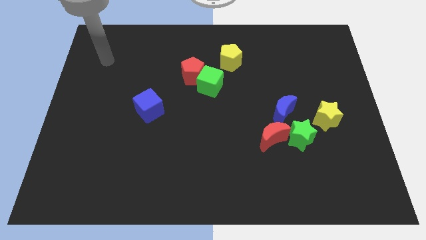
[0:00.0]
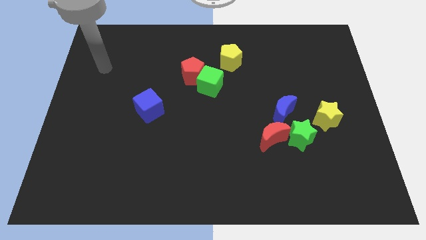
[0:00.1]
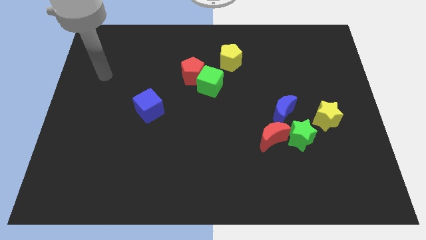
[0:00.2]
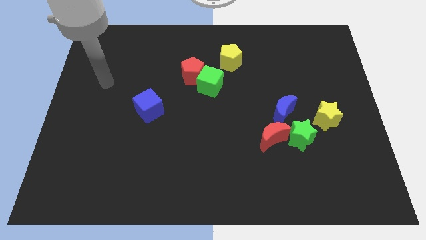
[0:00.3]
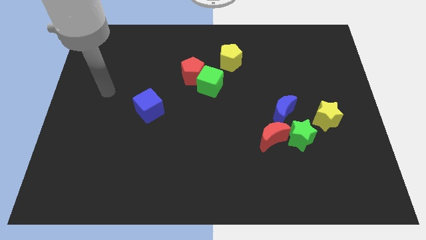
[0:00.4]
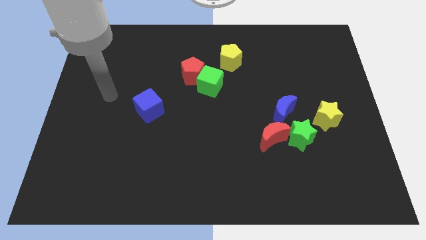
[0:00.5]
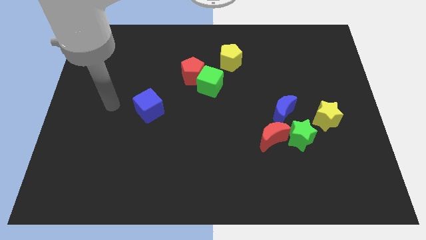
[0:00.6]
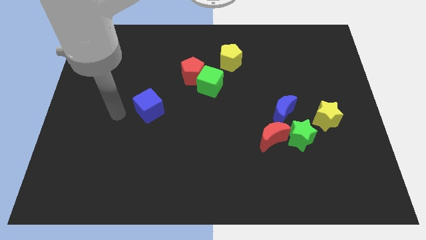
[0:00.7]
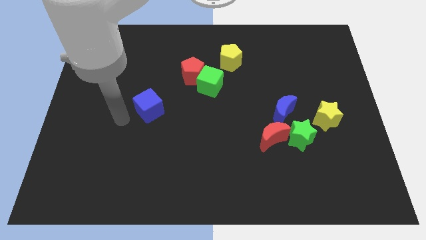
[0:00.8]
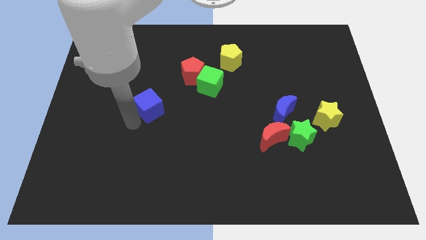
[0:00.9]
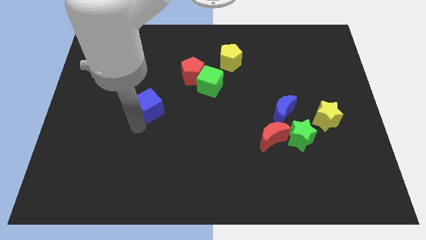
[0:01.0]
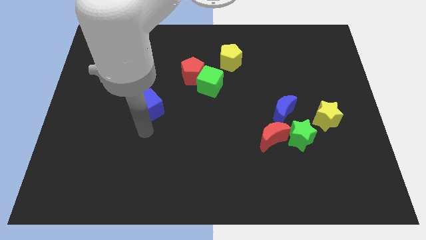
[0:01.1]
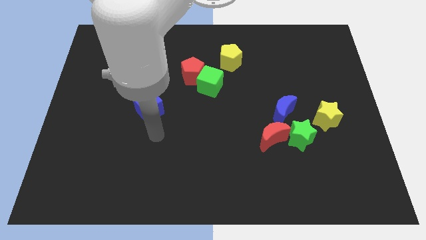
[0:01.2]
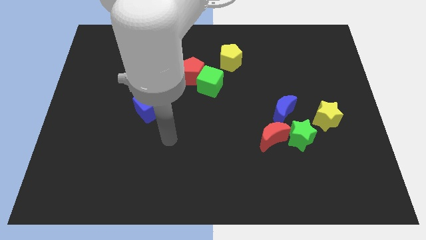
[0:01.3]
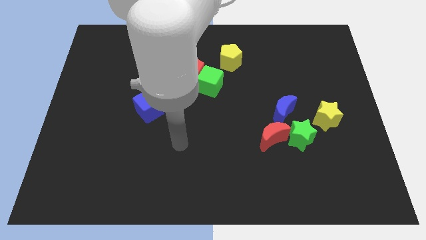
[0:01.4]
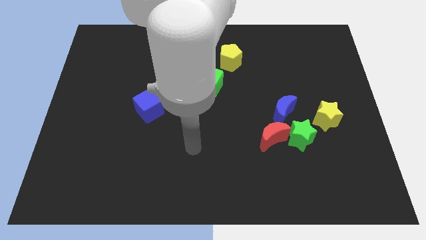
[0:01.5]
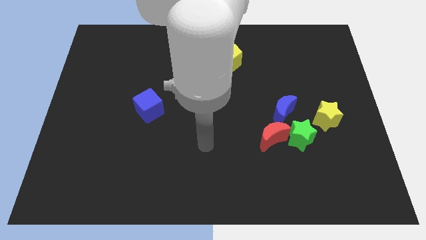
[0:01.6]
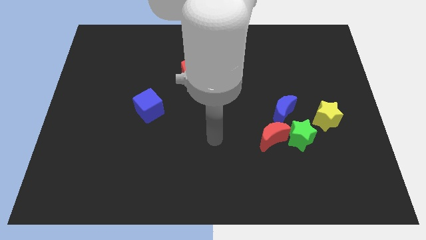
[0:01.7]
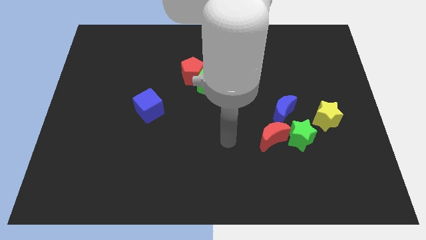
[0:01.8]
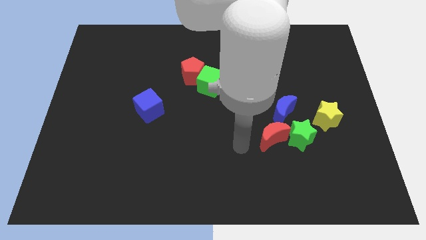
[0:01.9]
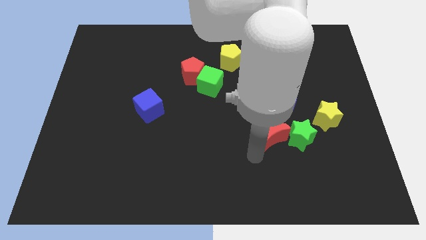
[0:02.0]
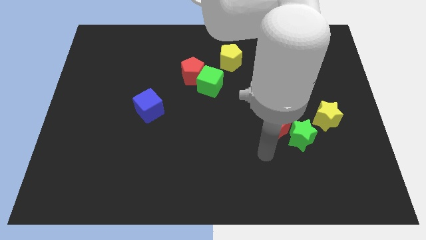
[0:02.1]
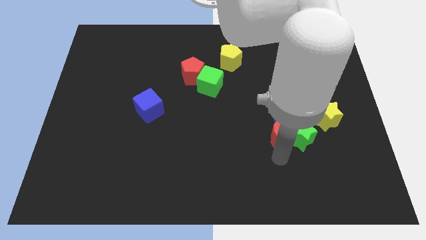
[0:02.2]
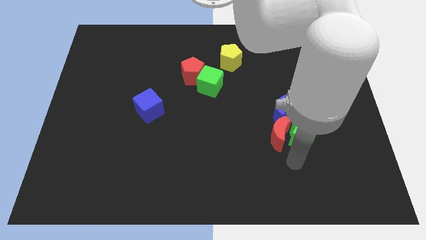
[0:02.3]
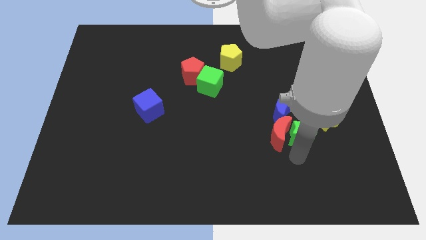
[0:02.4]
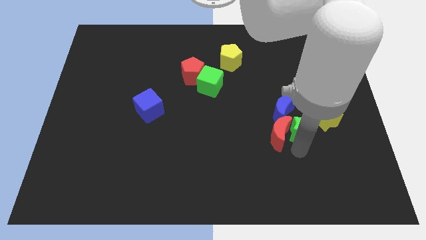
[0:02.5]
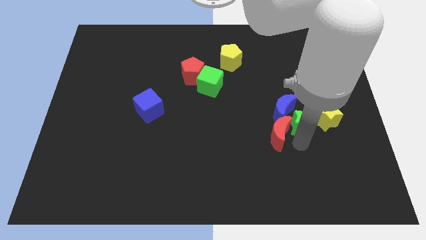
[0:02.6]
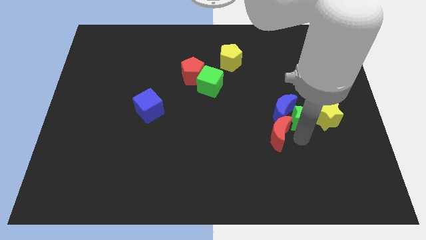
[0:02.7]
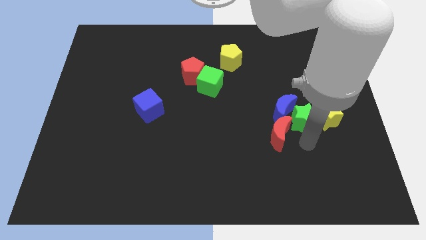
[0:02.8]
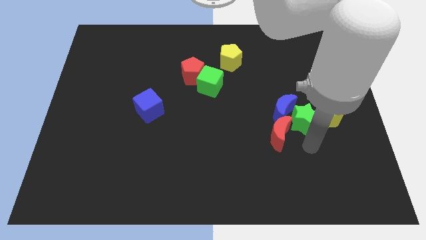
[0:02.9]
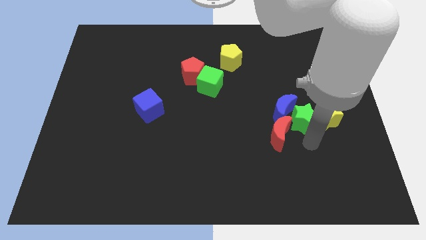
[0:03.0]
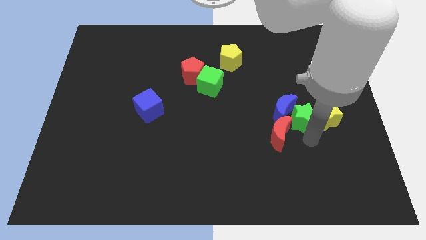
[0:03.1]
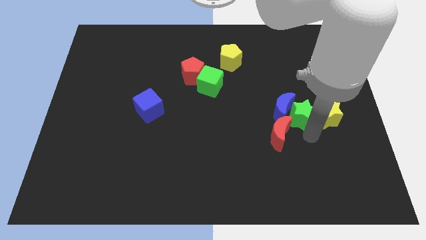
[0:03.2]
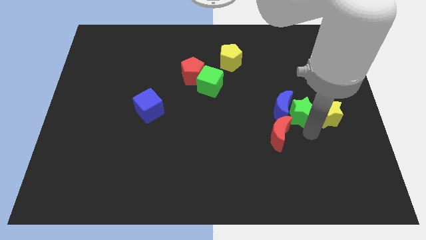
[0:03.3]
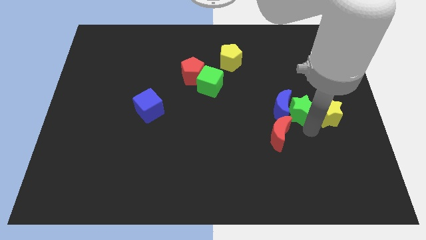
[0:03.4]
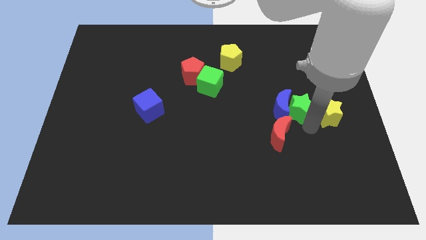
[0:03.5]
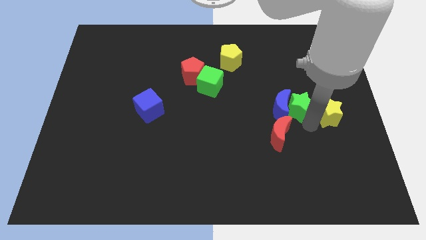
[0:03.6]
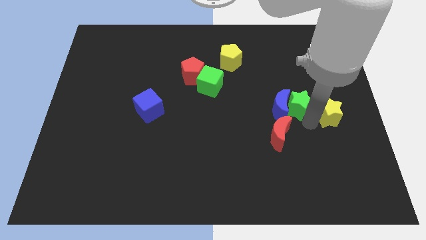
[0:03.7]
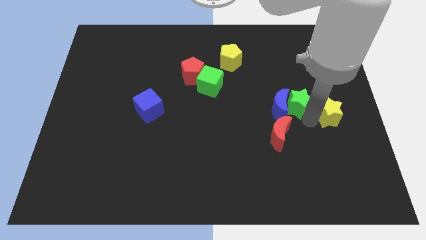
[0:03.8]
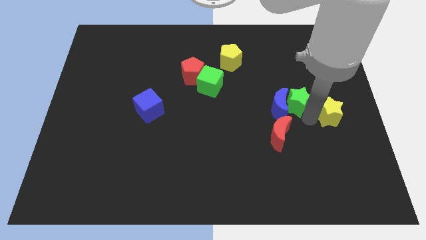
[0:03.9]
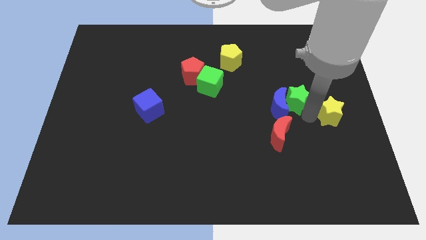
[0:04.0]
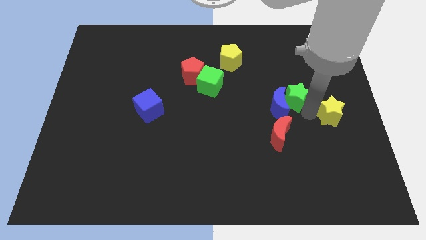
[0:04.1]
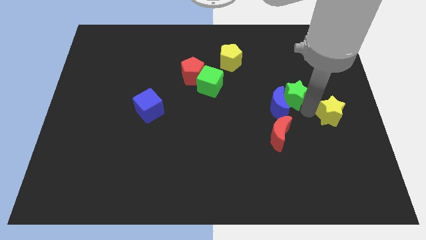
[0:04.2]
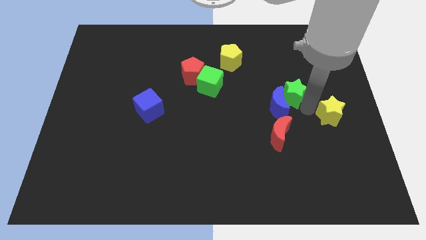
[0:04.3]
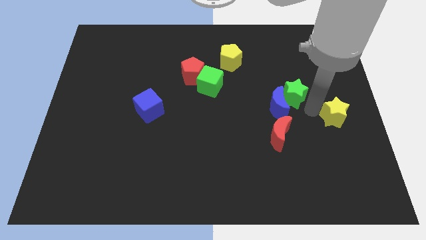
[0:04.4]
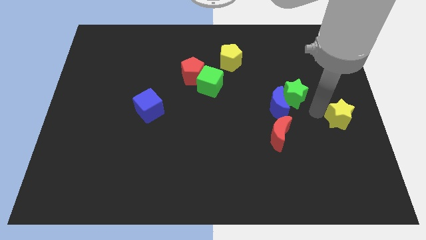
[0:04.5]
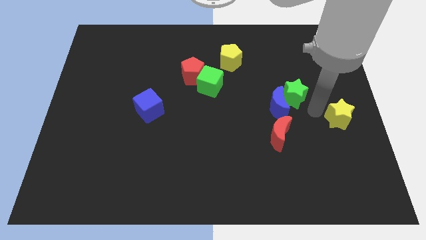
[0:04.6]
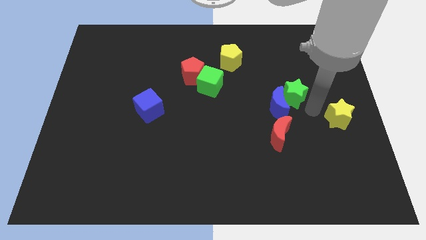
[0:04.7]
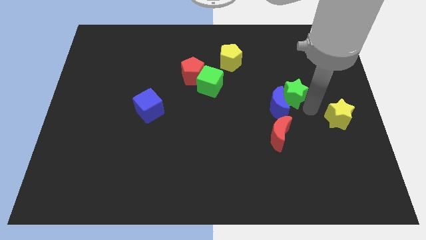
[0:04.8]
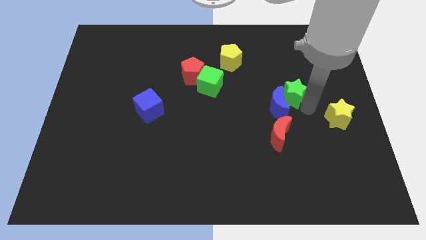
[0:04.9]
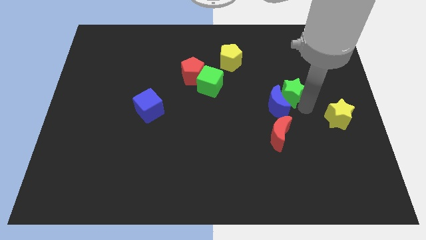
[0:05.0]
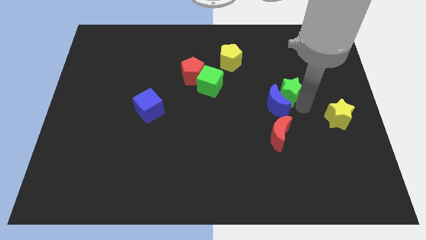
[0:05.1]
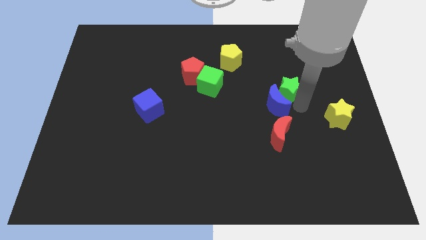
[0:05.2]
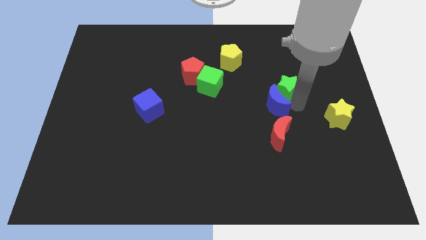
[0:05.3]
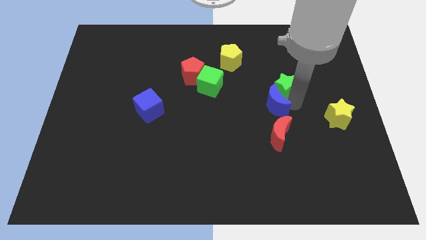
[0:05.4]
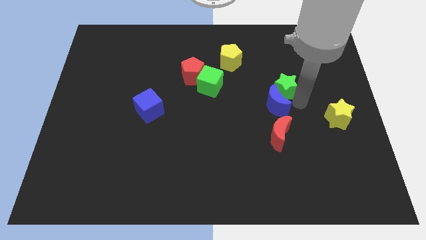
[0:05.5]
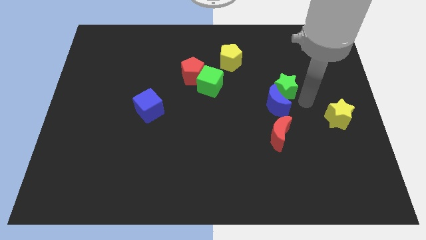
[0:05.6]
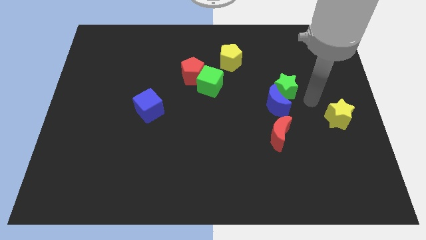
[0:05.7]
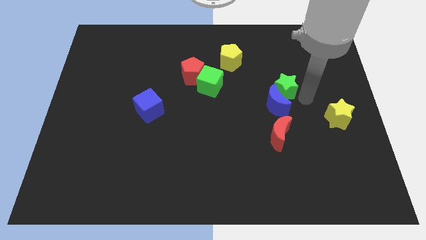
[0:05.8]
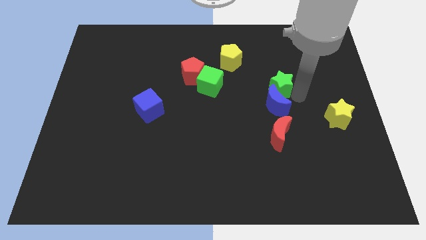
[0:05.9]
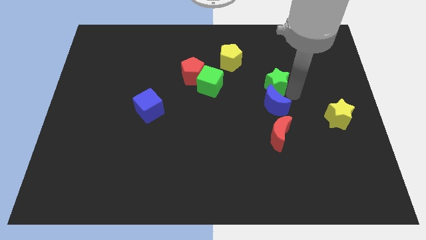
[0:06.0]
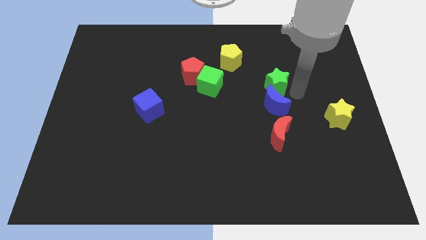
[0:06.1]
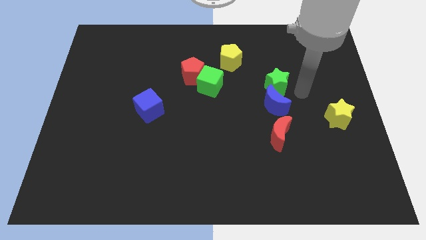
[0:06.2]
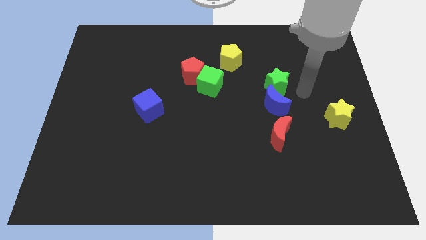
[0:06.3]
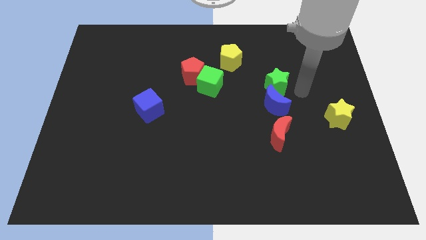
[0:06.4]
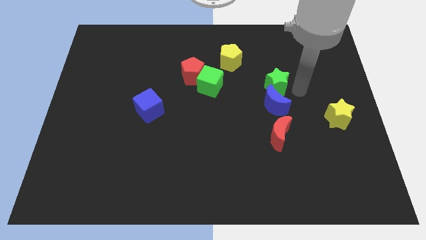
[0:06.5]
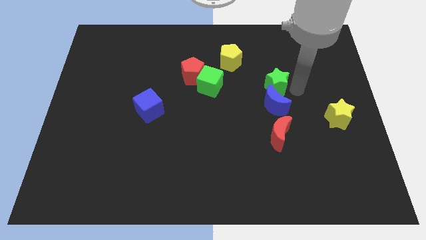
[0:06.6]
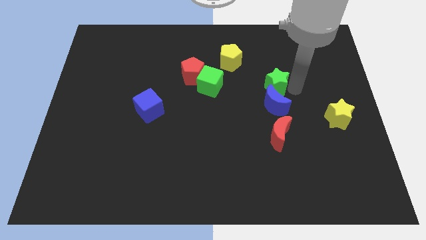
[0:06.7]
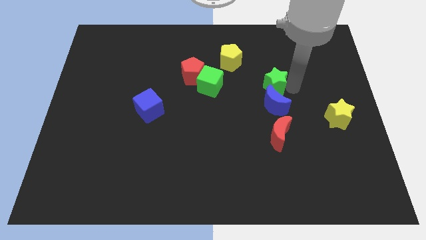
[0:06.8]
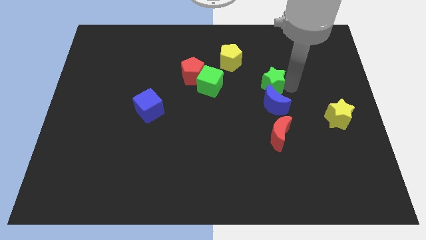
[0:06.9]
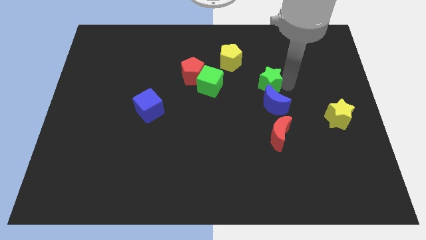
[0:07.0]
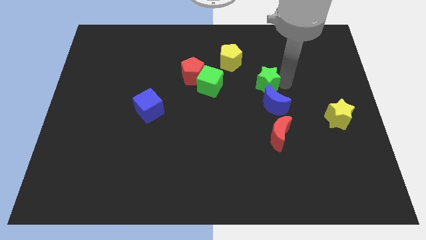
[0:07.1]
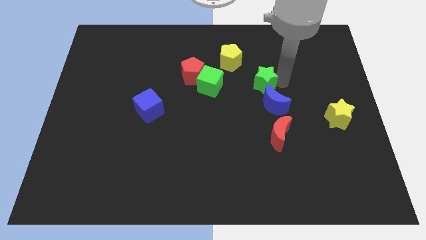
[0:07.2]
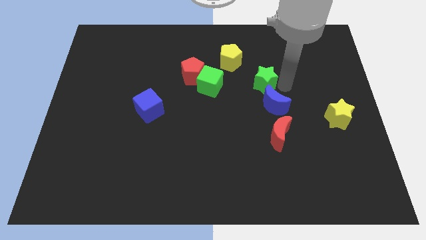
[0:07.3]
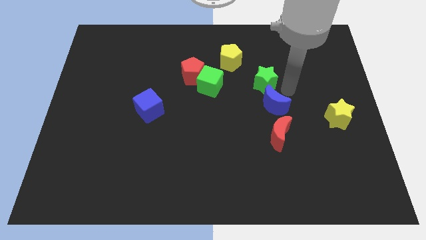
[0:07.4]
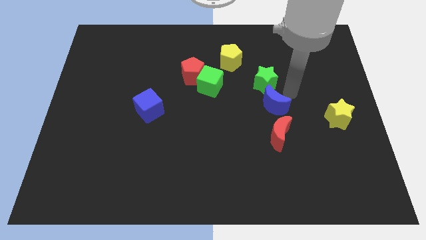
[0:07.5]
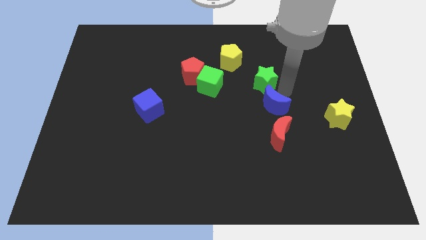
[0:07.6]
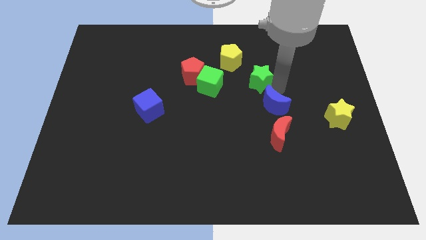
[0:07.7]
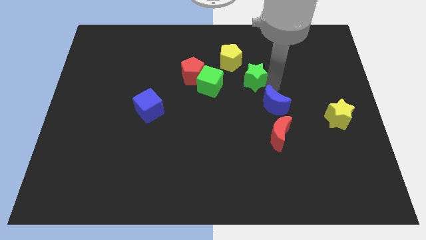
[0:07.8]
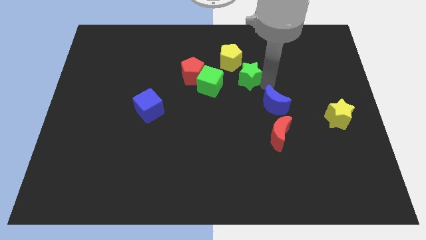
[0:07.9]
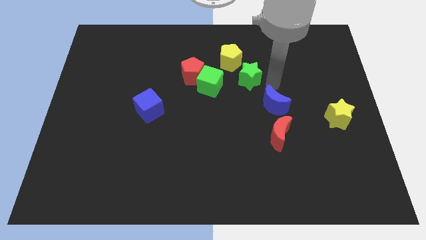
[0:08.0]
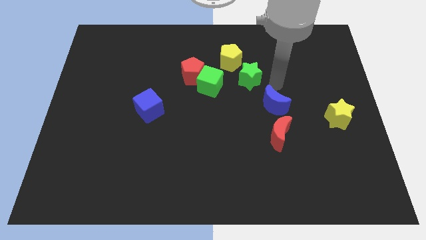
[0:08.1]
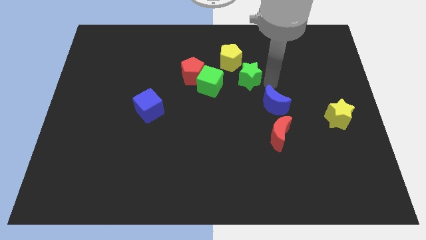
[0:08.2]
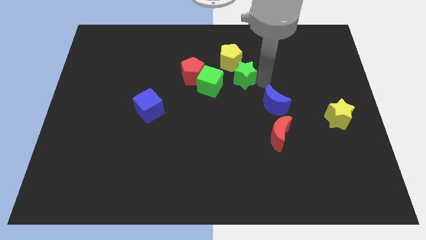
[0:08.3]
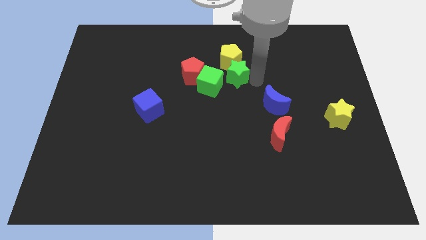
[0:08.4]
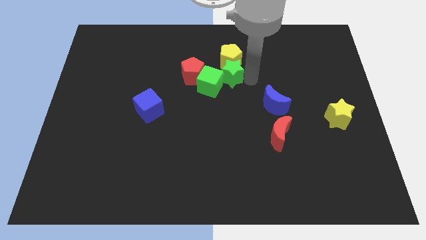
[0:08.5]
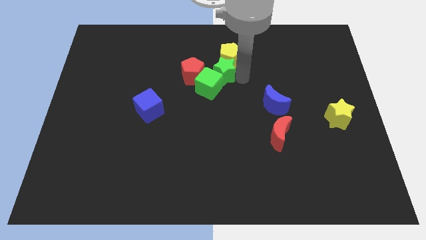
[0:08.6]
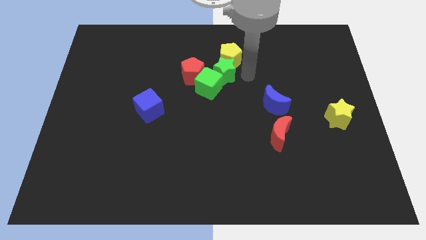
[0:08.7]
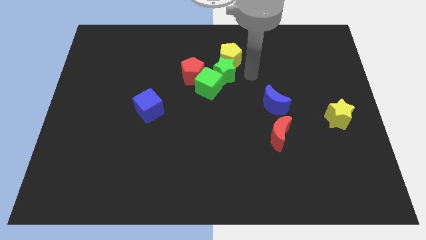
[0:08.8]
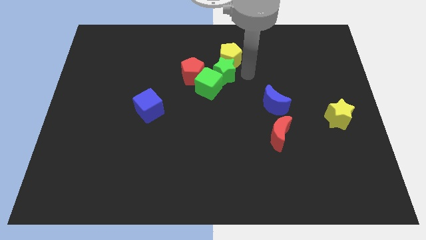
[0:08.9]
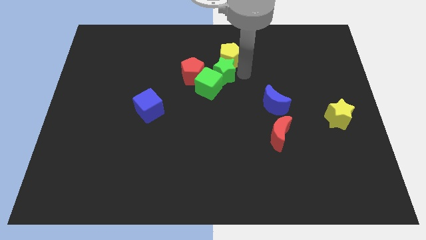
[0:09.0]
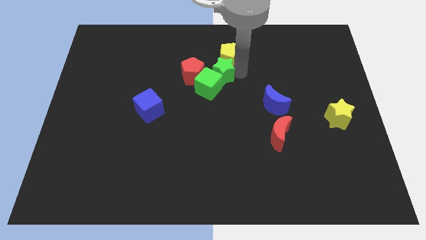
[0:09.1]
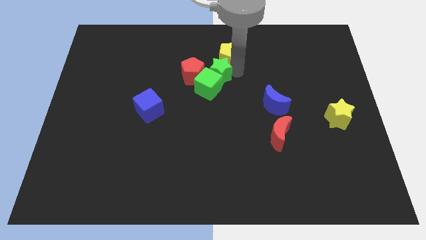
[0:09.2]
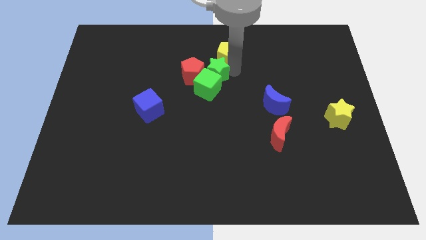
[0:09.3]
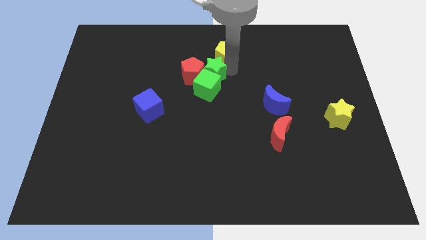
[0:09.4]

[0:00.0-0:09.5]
move the green star next to the red pentagon
